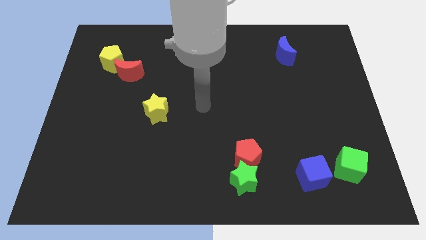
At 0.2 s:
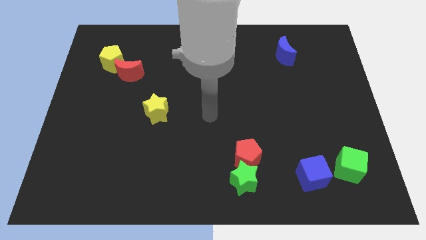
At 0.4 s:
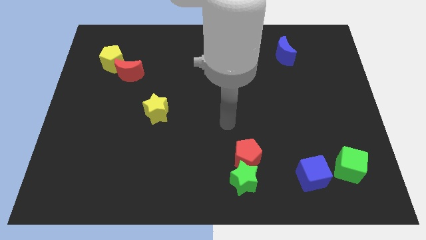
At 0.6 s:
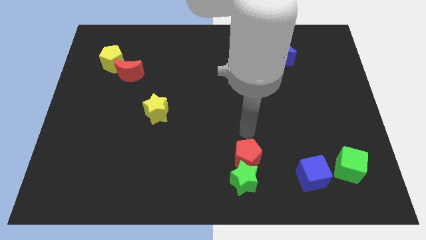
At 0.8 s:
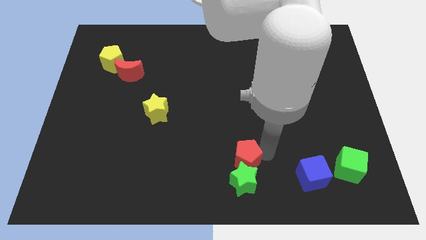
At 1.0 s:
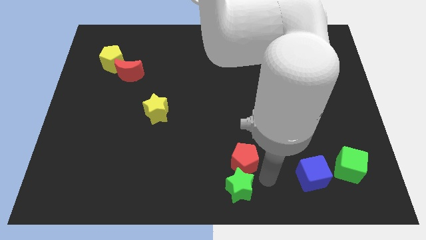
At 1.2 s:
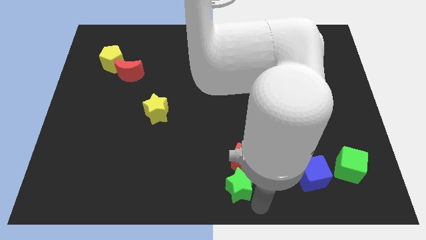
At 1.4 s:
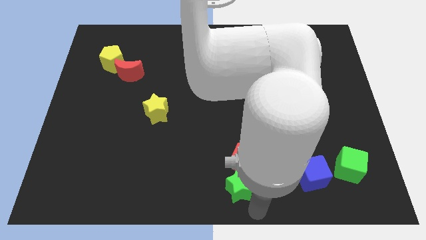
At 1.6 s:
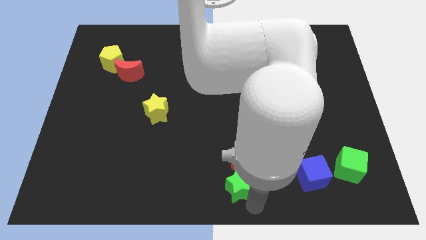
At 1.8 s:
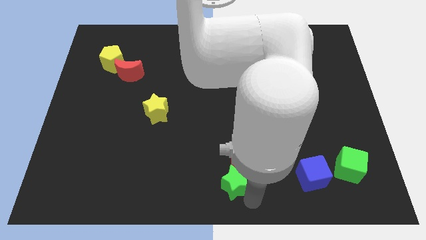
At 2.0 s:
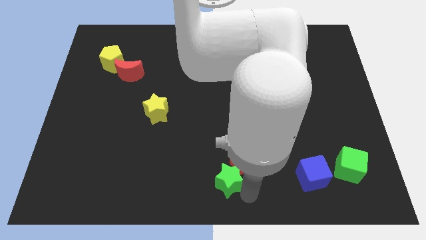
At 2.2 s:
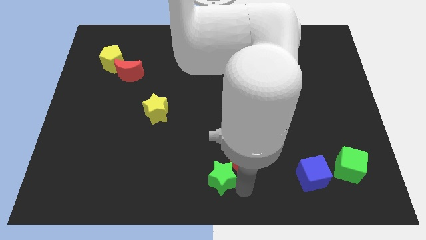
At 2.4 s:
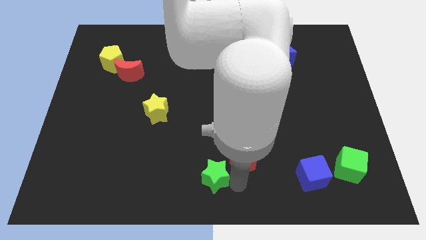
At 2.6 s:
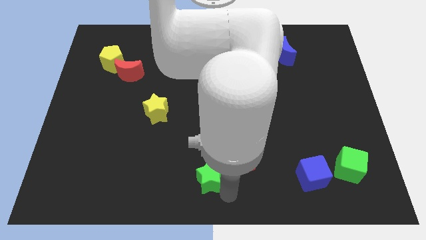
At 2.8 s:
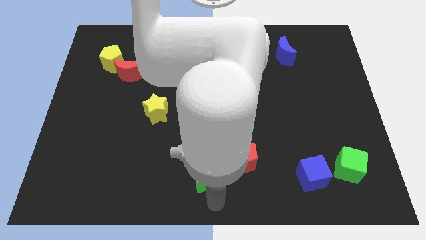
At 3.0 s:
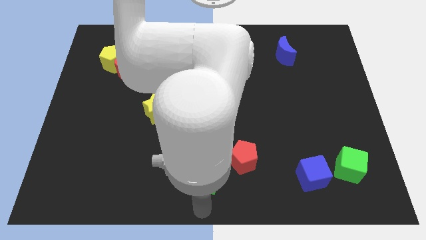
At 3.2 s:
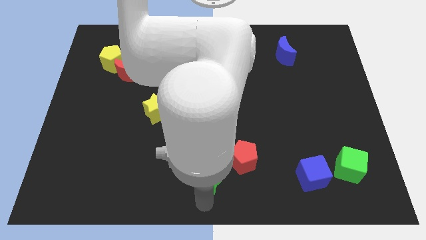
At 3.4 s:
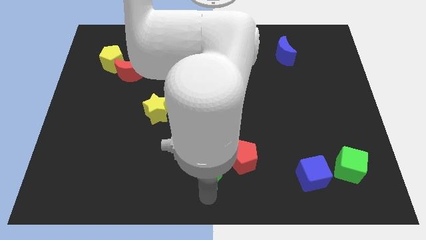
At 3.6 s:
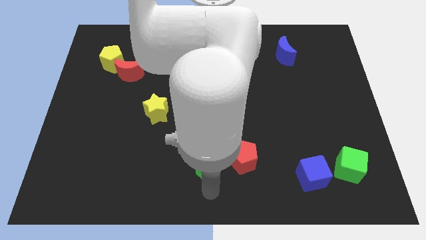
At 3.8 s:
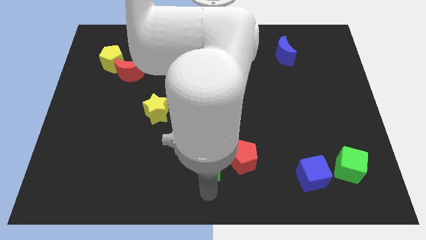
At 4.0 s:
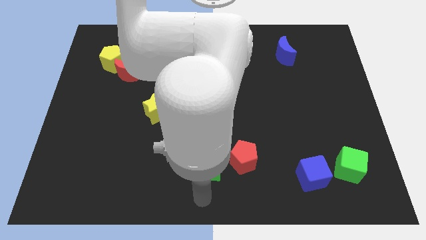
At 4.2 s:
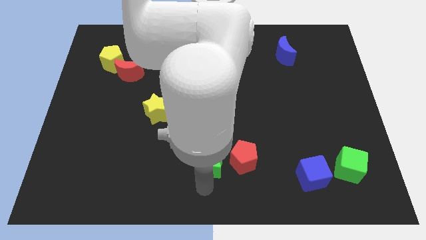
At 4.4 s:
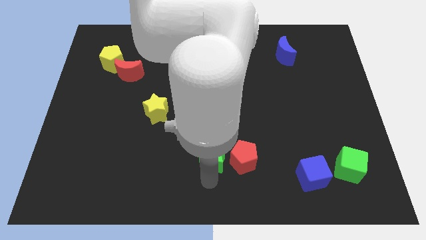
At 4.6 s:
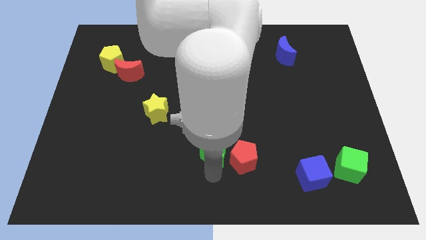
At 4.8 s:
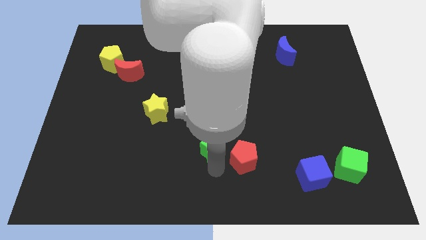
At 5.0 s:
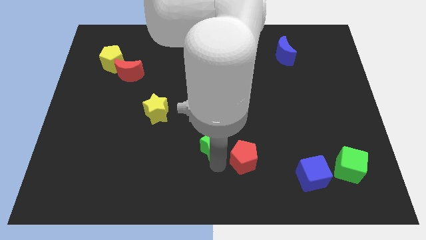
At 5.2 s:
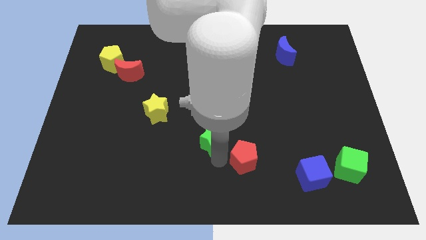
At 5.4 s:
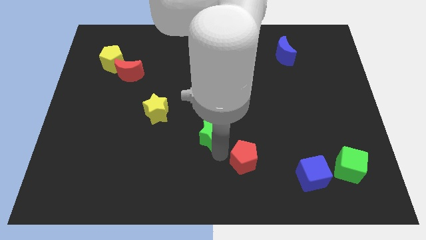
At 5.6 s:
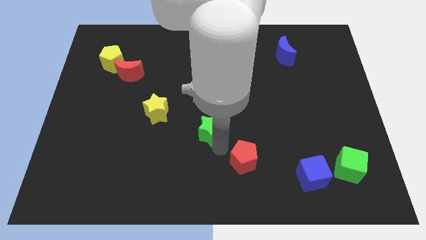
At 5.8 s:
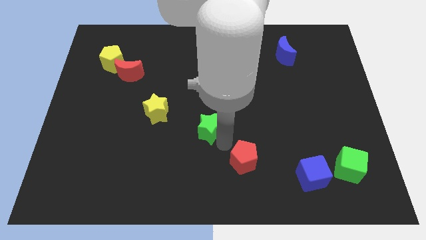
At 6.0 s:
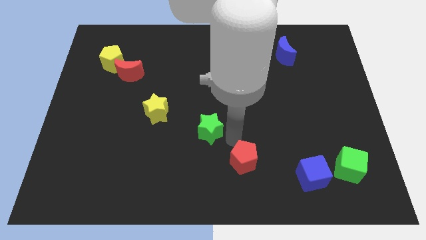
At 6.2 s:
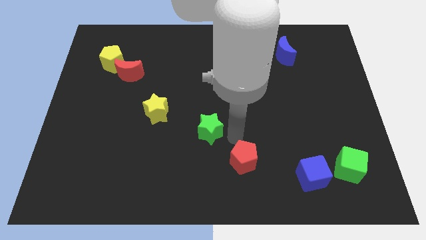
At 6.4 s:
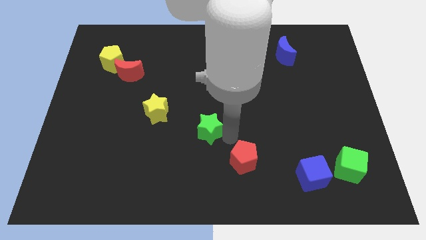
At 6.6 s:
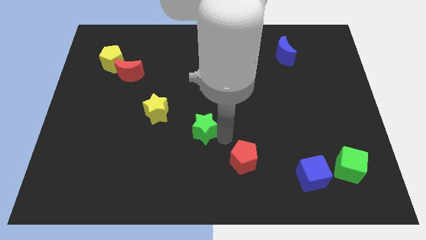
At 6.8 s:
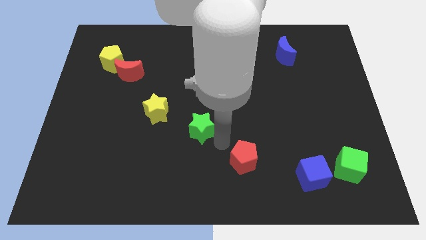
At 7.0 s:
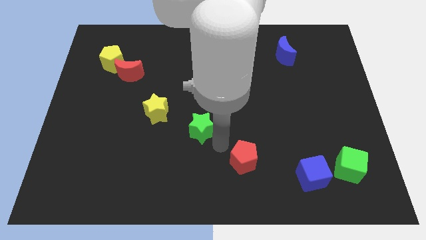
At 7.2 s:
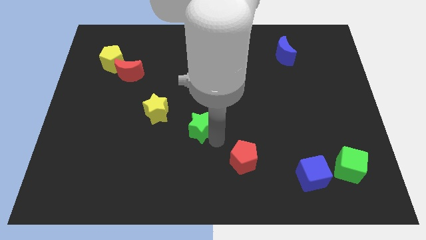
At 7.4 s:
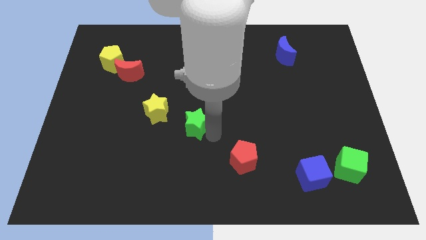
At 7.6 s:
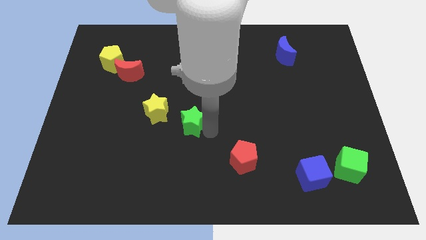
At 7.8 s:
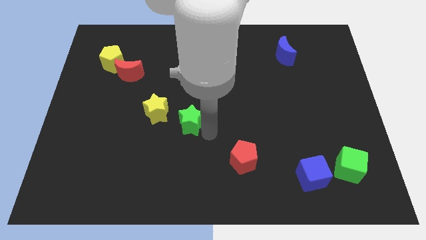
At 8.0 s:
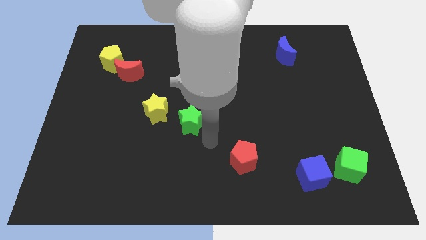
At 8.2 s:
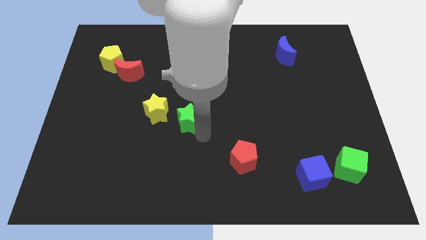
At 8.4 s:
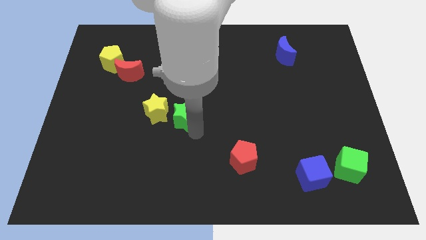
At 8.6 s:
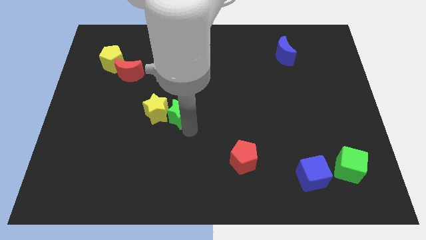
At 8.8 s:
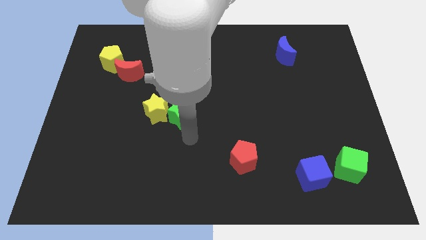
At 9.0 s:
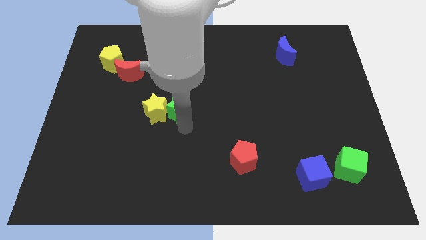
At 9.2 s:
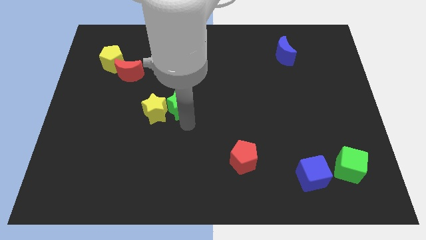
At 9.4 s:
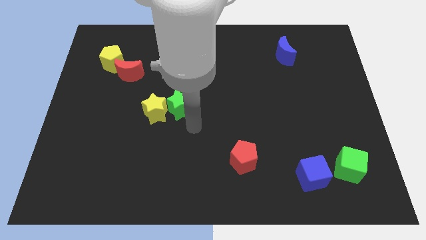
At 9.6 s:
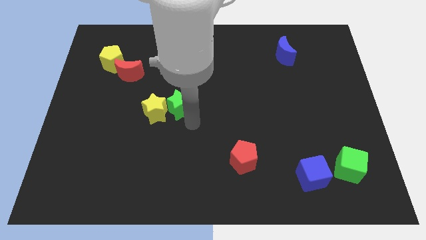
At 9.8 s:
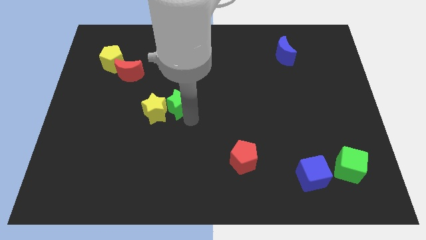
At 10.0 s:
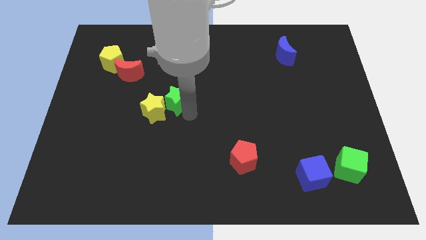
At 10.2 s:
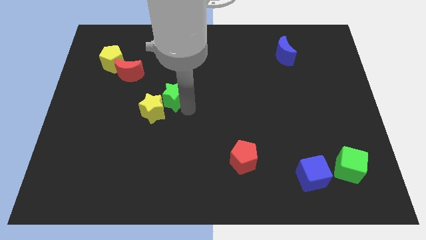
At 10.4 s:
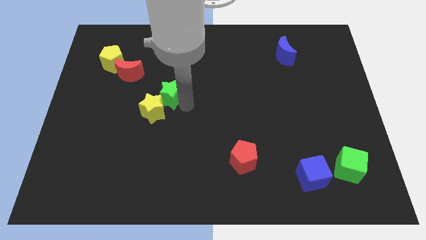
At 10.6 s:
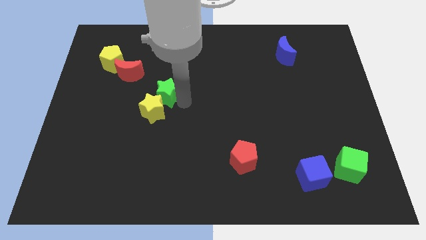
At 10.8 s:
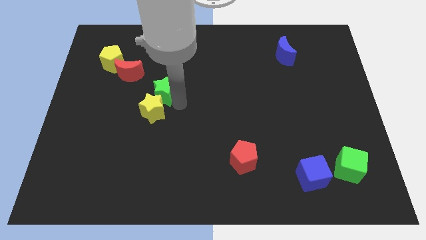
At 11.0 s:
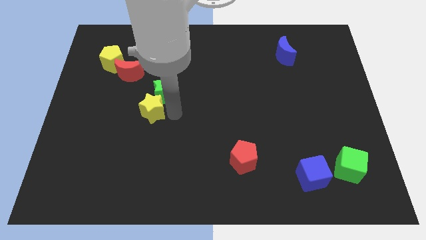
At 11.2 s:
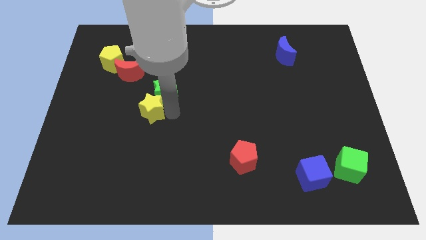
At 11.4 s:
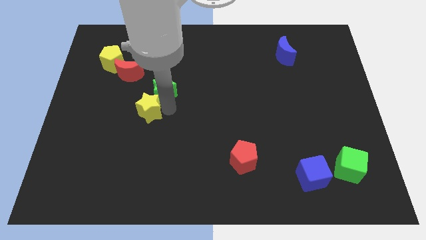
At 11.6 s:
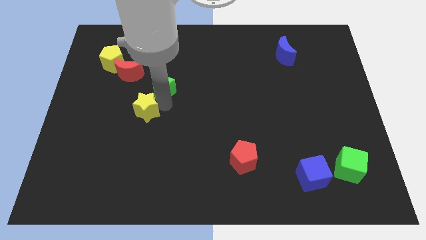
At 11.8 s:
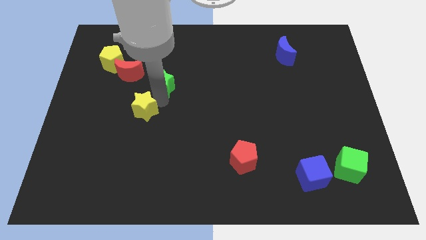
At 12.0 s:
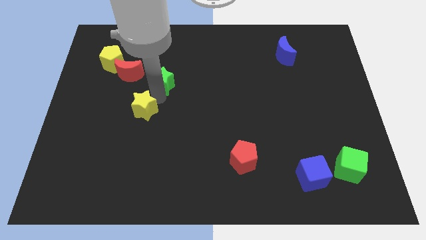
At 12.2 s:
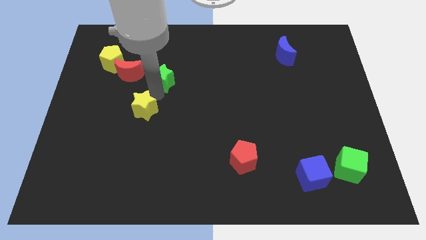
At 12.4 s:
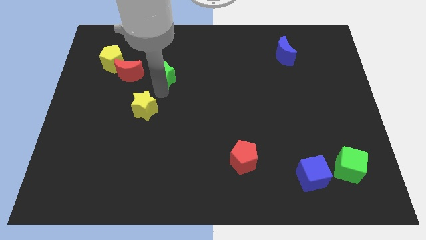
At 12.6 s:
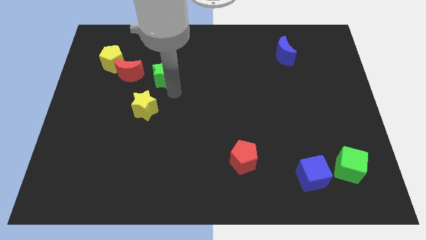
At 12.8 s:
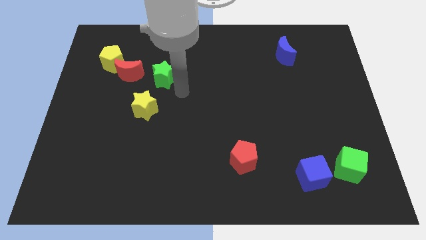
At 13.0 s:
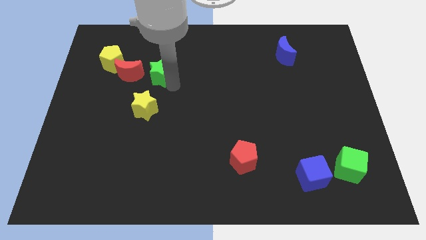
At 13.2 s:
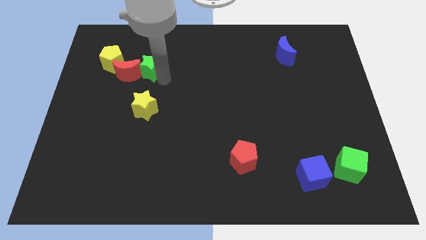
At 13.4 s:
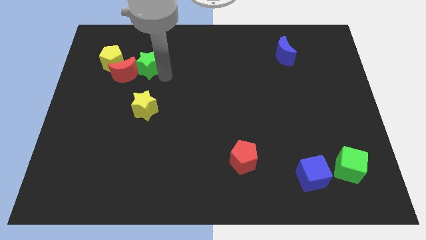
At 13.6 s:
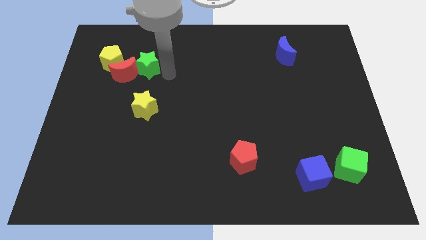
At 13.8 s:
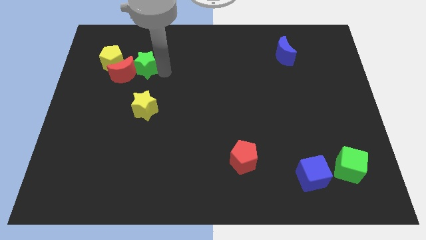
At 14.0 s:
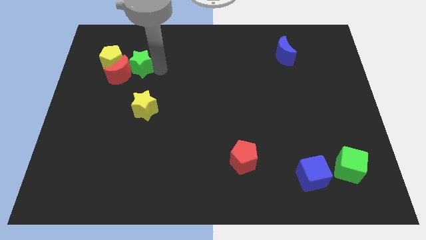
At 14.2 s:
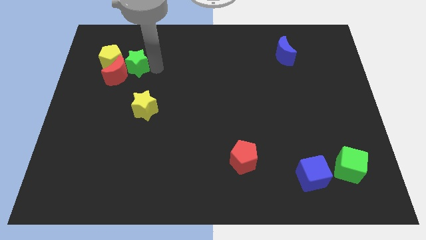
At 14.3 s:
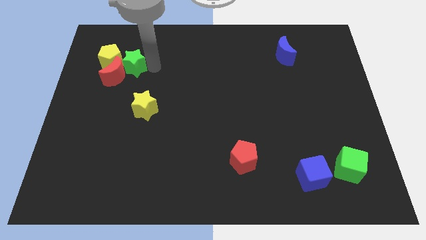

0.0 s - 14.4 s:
push the green star next to the yellow pentagon
